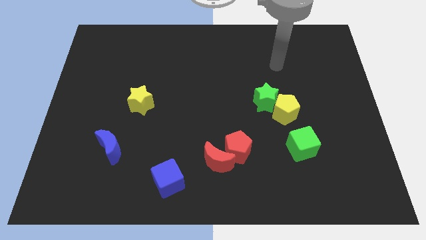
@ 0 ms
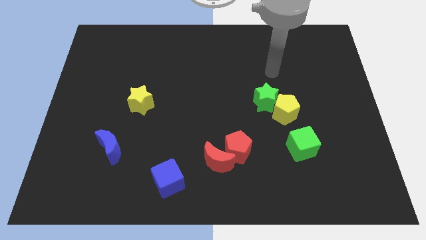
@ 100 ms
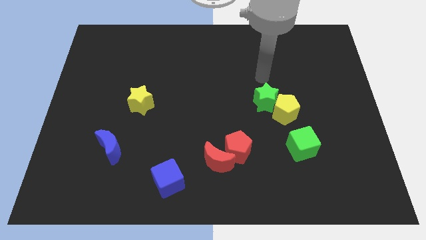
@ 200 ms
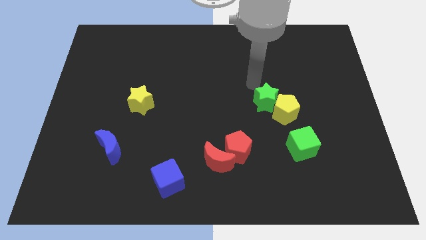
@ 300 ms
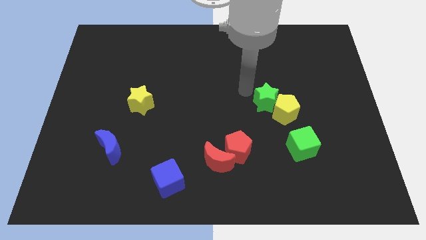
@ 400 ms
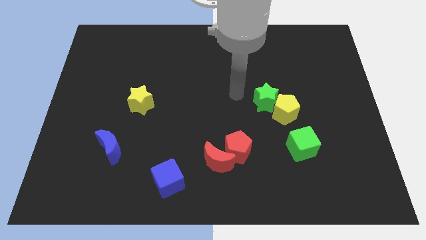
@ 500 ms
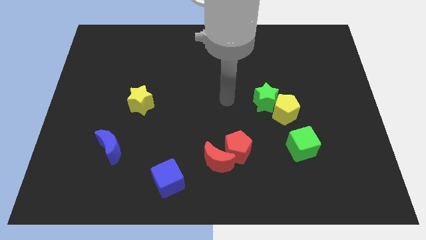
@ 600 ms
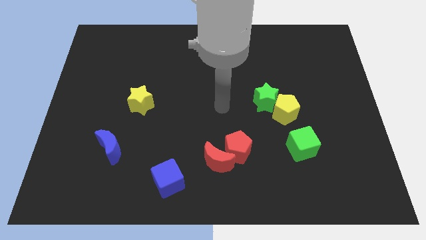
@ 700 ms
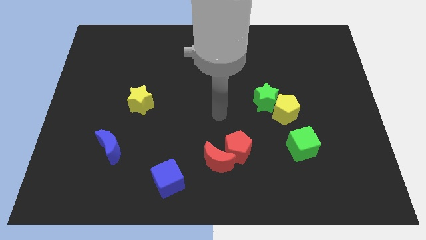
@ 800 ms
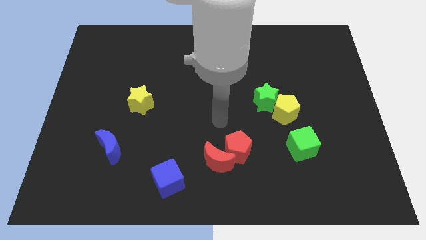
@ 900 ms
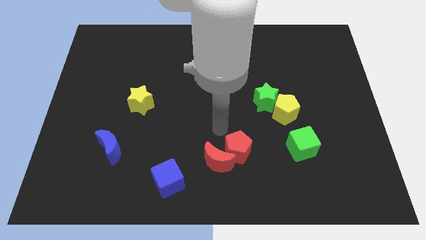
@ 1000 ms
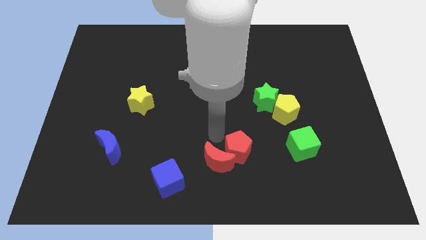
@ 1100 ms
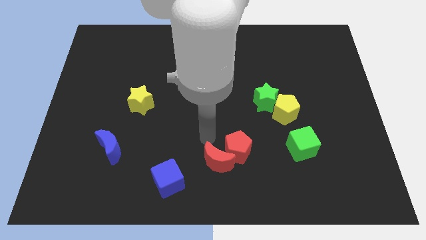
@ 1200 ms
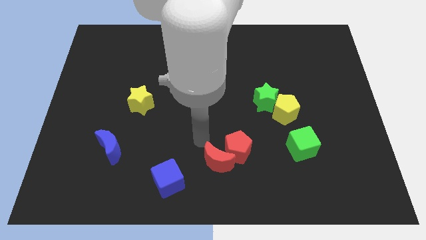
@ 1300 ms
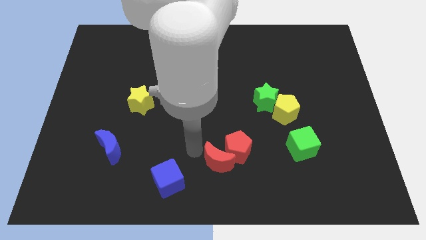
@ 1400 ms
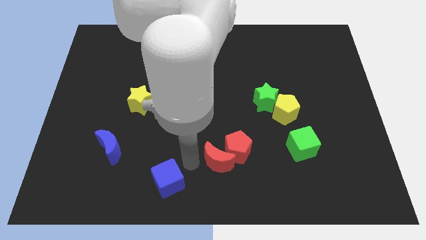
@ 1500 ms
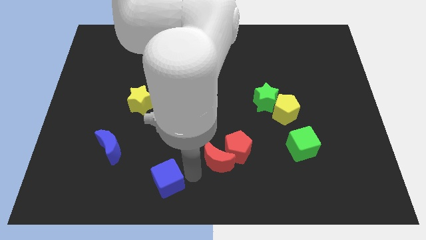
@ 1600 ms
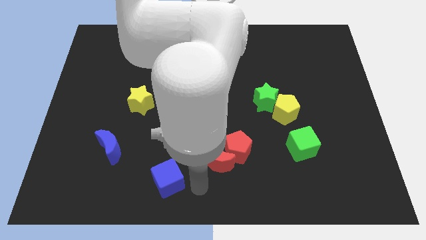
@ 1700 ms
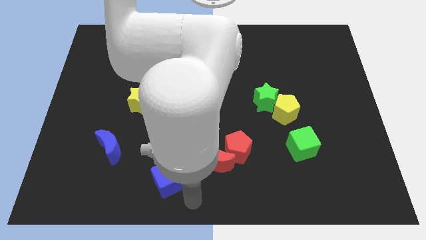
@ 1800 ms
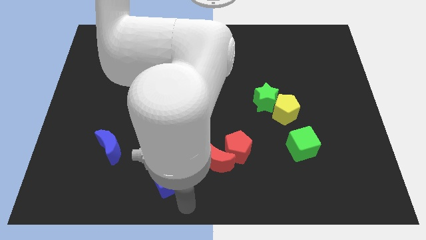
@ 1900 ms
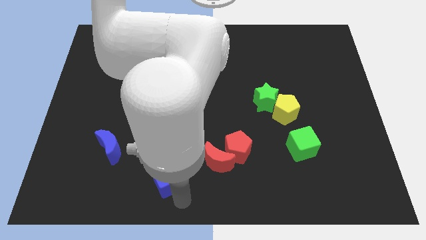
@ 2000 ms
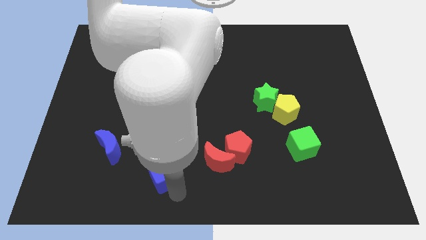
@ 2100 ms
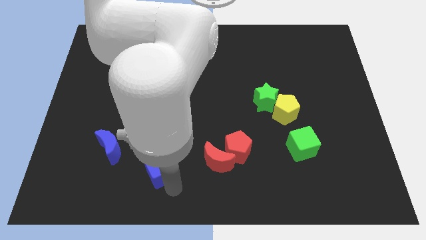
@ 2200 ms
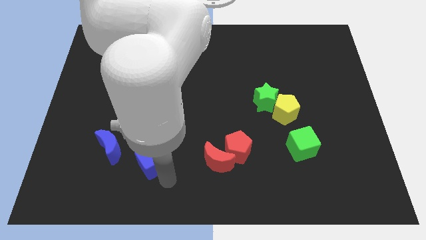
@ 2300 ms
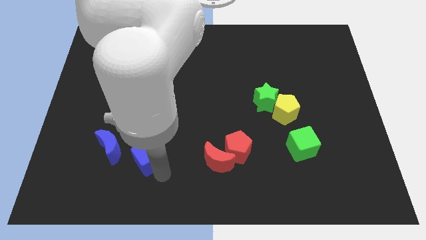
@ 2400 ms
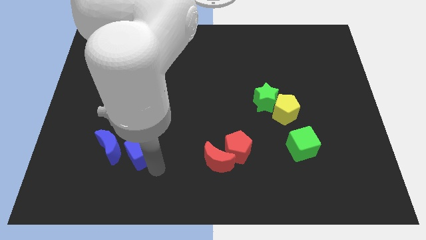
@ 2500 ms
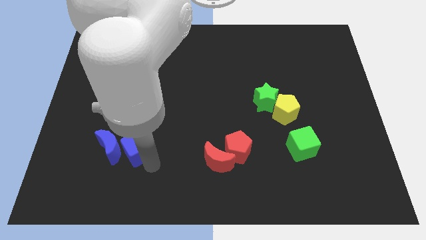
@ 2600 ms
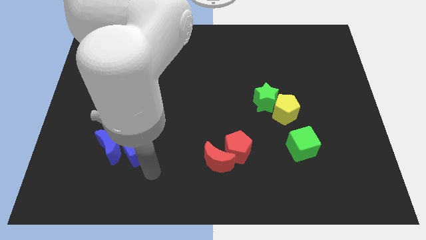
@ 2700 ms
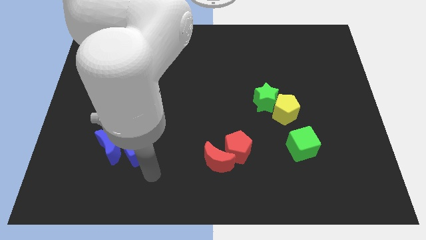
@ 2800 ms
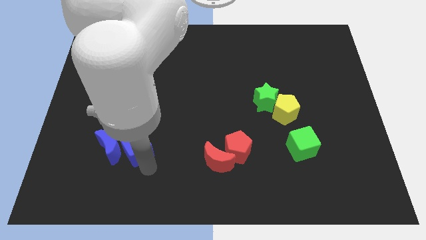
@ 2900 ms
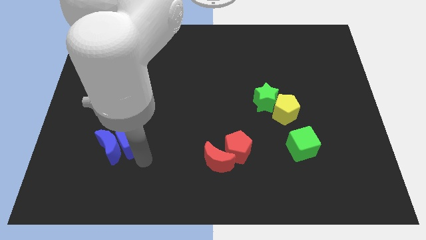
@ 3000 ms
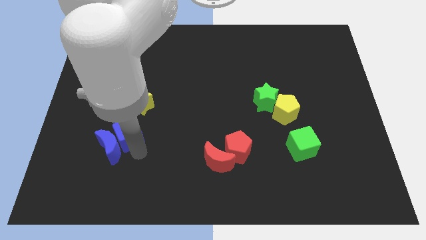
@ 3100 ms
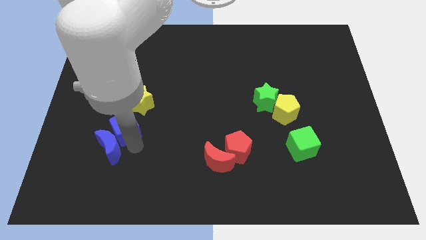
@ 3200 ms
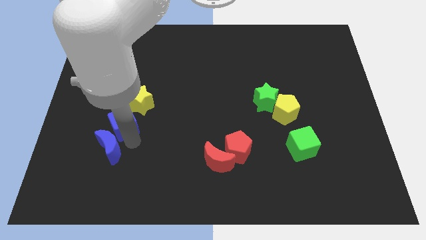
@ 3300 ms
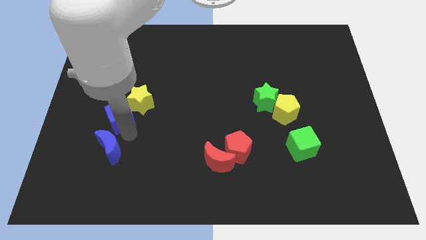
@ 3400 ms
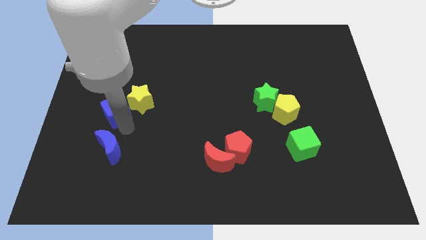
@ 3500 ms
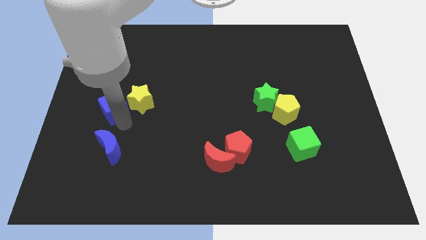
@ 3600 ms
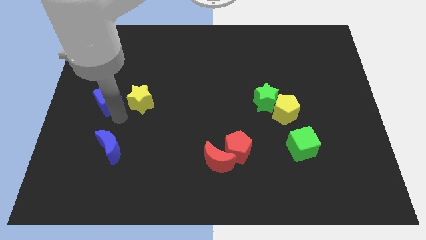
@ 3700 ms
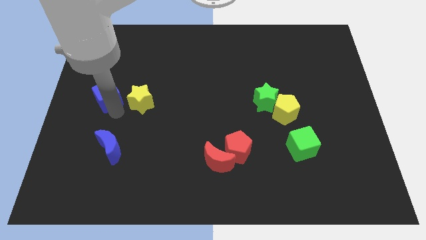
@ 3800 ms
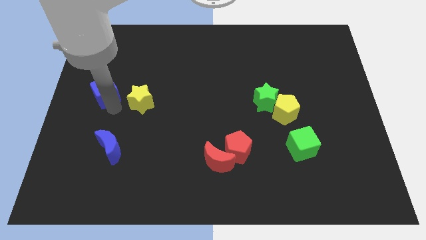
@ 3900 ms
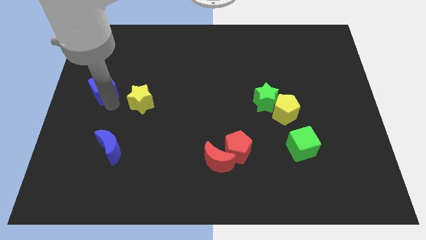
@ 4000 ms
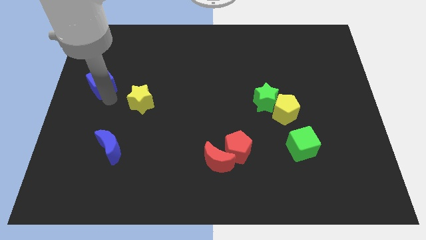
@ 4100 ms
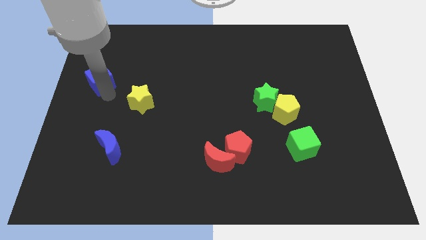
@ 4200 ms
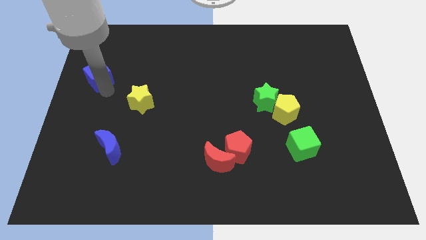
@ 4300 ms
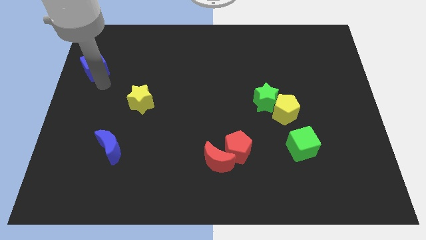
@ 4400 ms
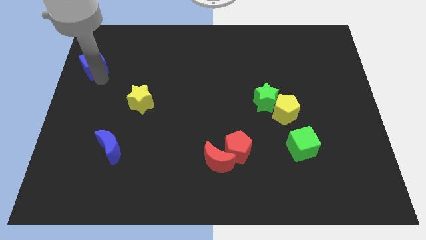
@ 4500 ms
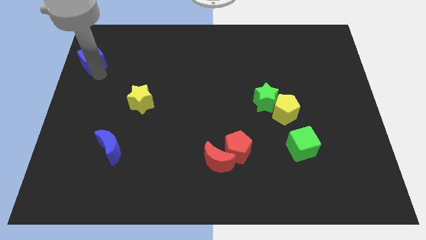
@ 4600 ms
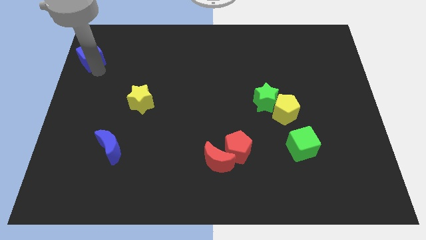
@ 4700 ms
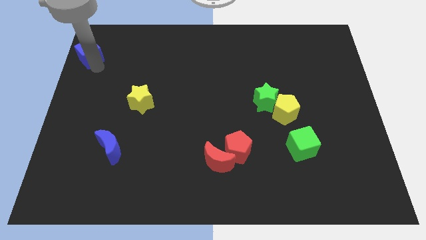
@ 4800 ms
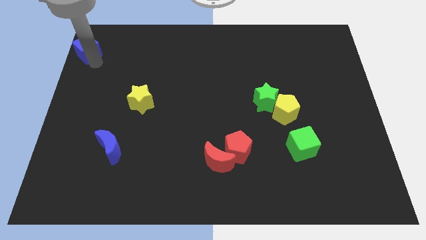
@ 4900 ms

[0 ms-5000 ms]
push the blue cube to the top left corner

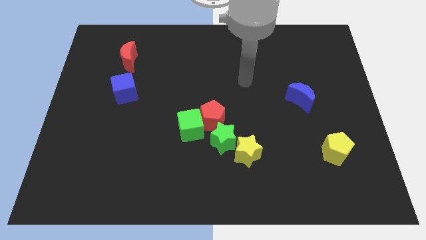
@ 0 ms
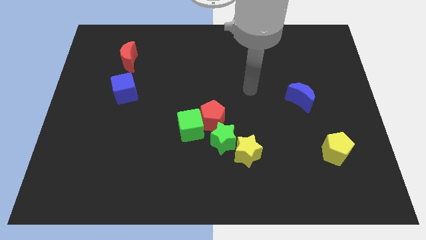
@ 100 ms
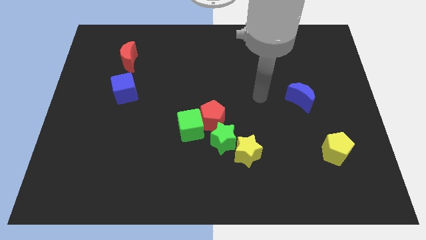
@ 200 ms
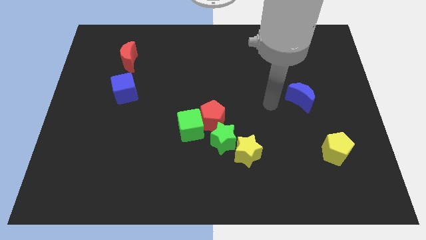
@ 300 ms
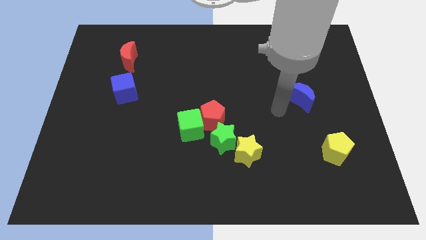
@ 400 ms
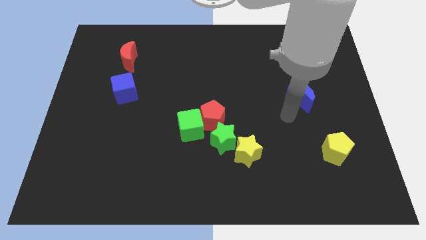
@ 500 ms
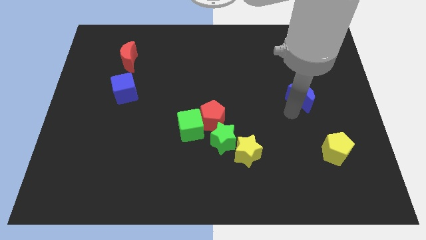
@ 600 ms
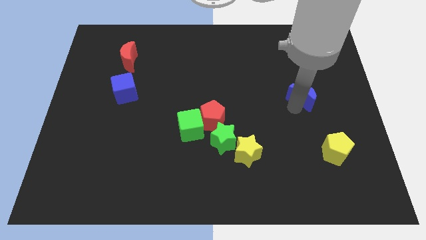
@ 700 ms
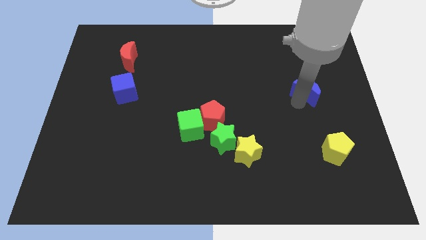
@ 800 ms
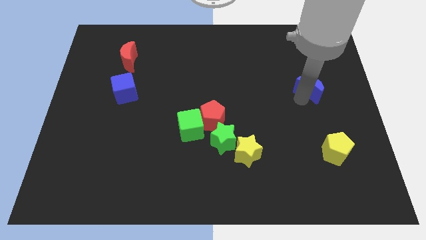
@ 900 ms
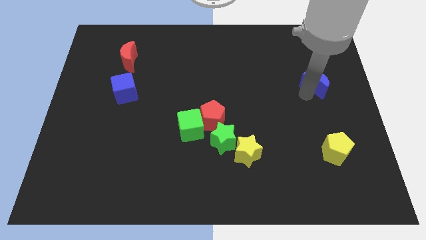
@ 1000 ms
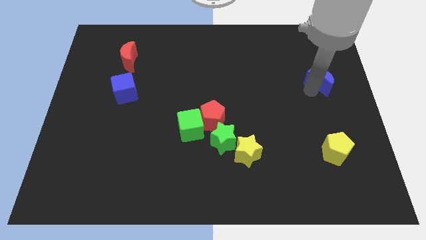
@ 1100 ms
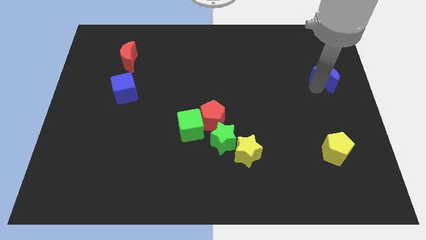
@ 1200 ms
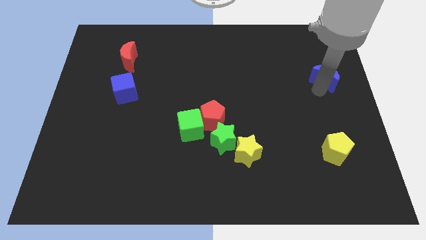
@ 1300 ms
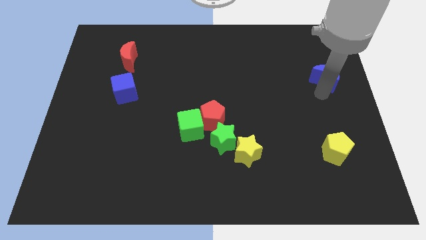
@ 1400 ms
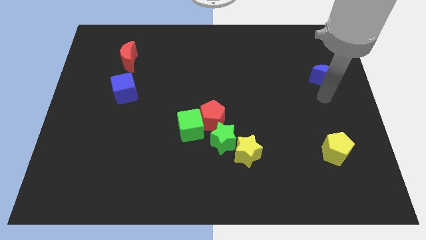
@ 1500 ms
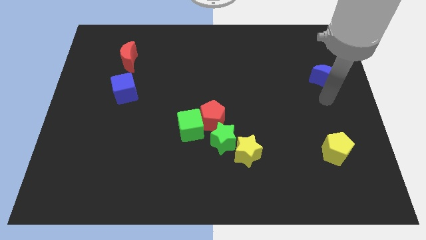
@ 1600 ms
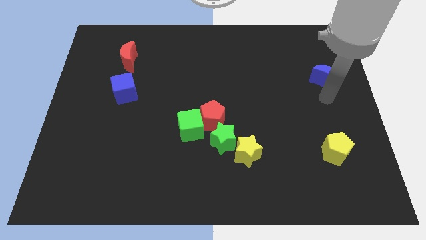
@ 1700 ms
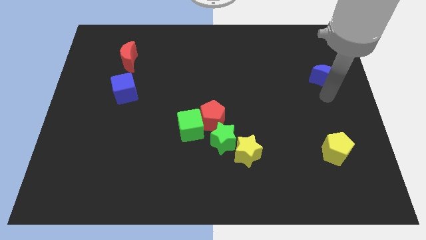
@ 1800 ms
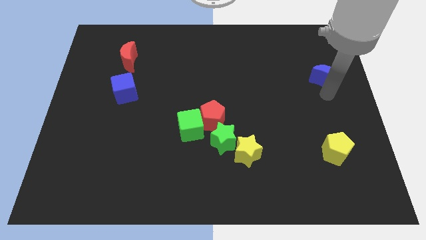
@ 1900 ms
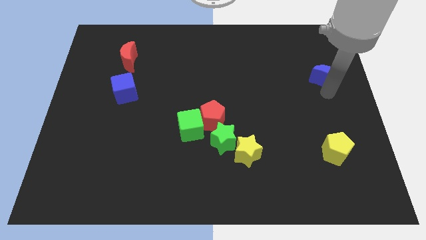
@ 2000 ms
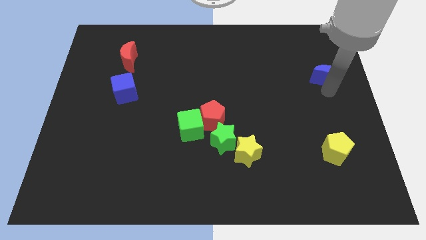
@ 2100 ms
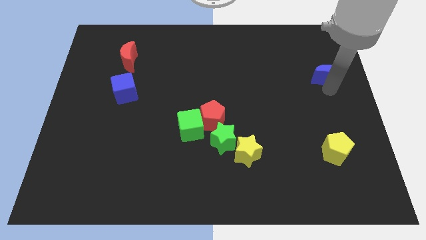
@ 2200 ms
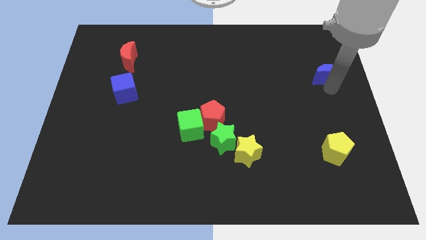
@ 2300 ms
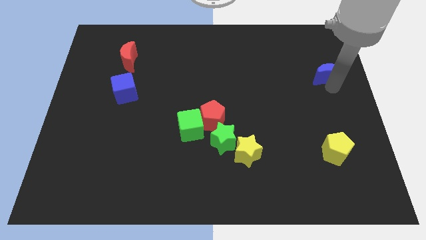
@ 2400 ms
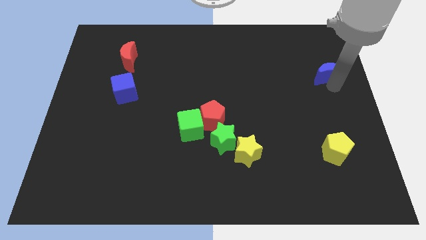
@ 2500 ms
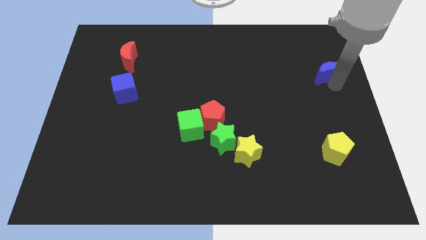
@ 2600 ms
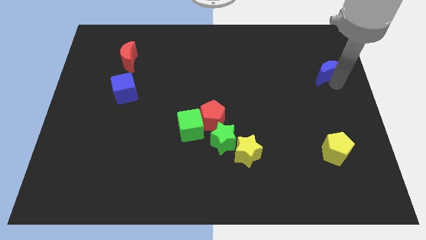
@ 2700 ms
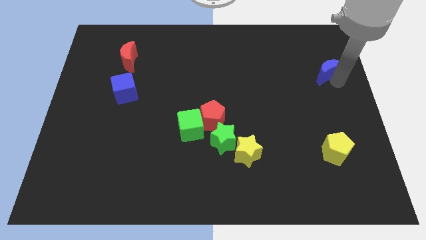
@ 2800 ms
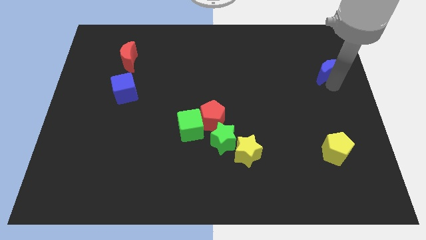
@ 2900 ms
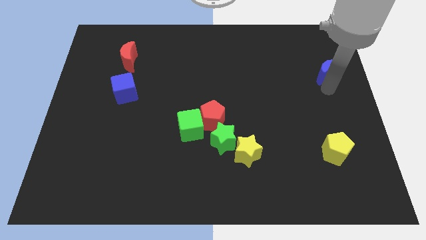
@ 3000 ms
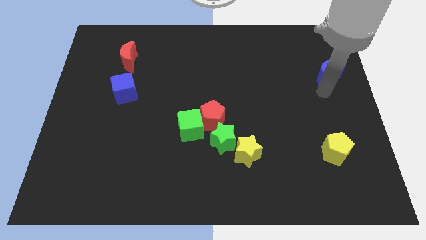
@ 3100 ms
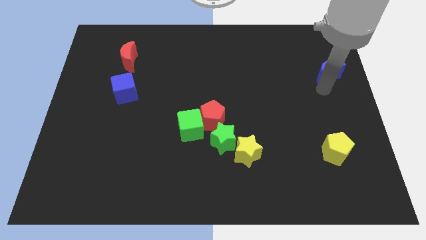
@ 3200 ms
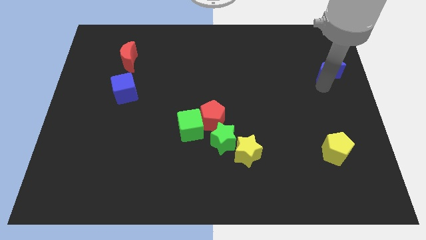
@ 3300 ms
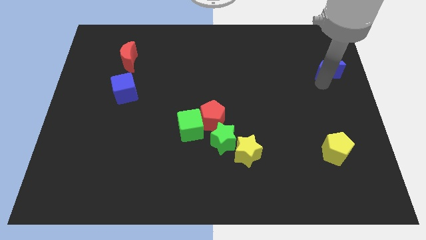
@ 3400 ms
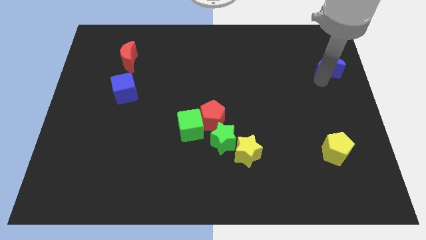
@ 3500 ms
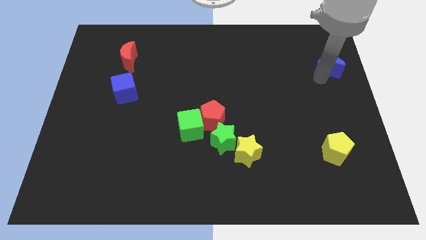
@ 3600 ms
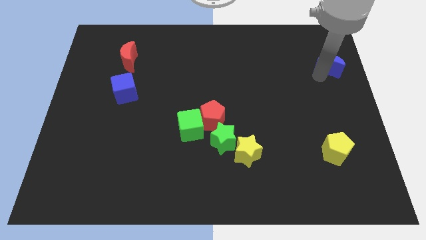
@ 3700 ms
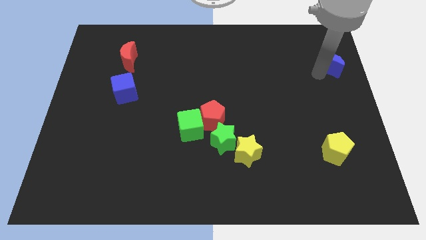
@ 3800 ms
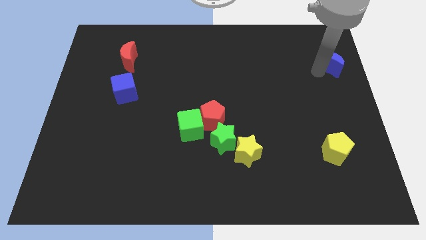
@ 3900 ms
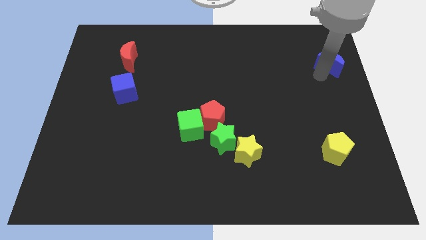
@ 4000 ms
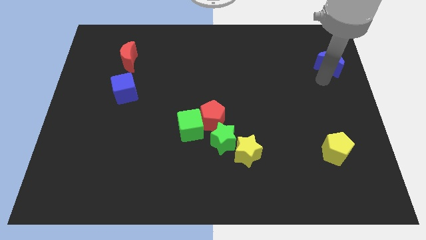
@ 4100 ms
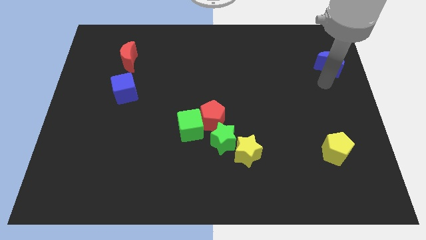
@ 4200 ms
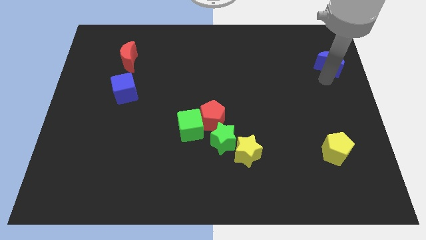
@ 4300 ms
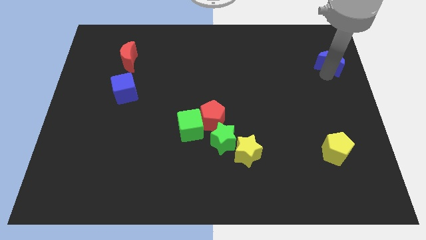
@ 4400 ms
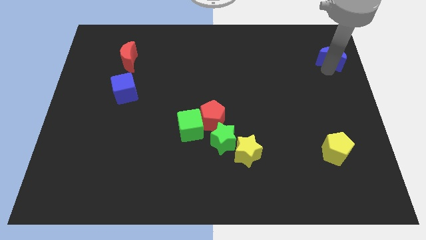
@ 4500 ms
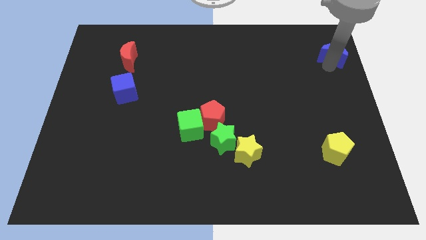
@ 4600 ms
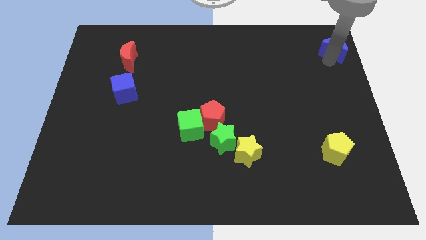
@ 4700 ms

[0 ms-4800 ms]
slide the blue moon to the top right
